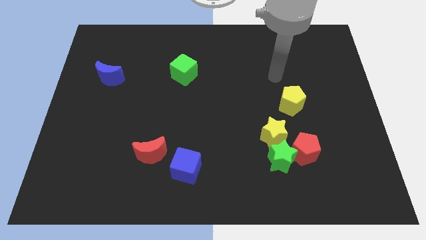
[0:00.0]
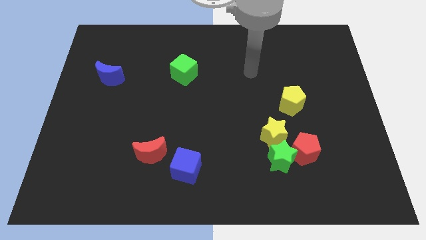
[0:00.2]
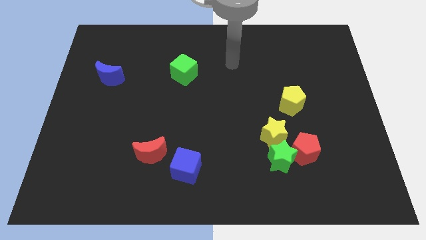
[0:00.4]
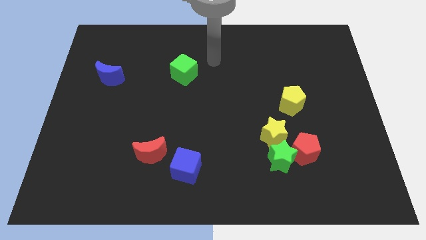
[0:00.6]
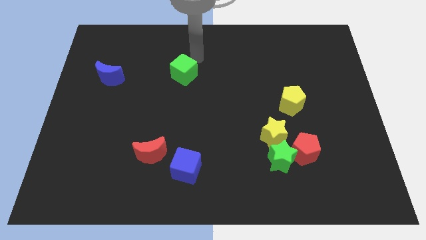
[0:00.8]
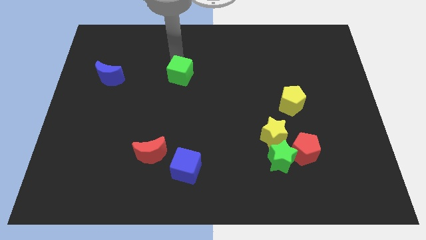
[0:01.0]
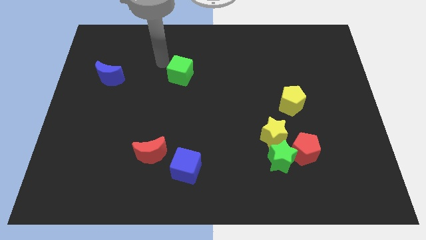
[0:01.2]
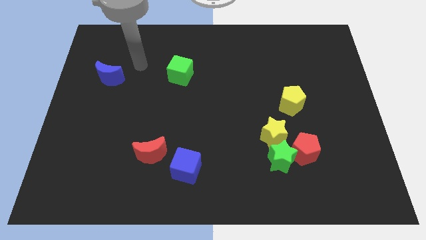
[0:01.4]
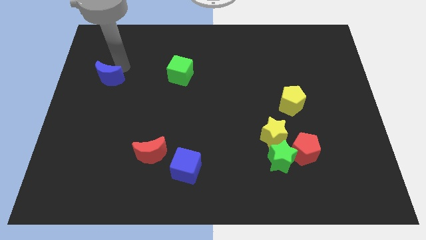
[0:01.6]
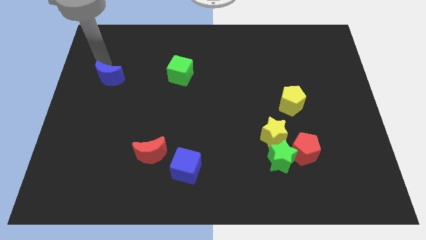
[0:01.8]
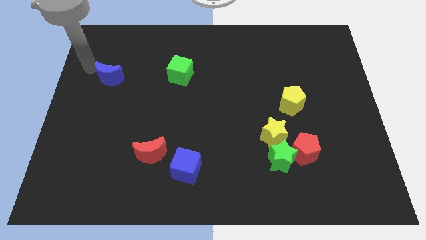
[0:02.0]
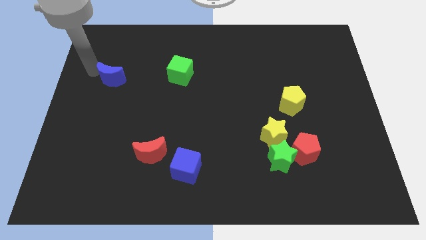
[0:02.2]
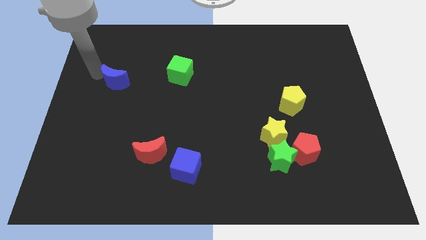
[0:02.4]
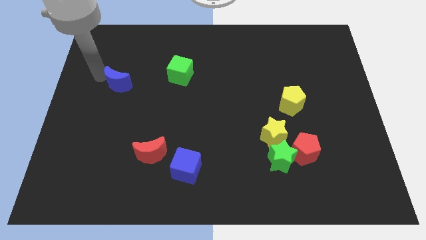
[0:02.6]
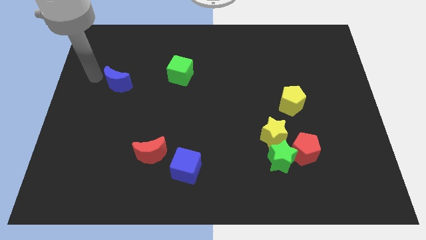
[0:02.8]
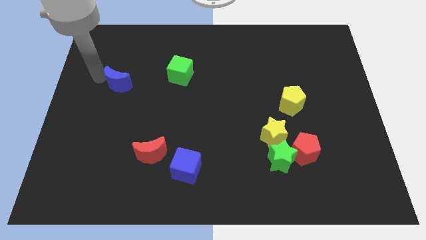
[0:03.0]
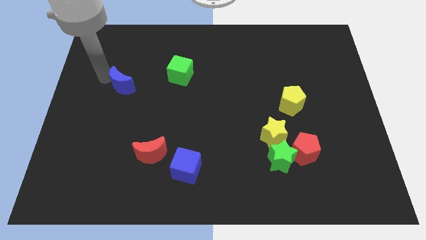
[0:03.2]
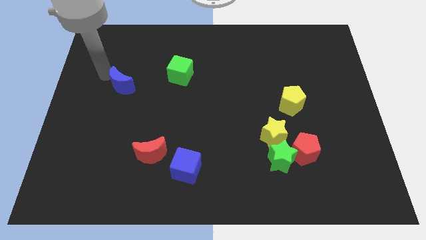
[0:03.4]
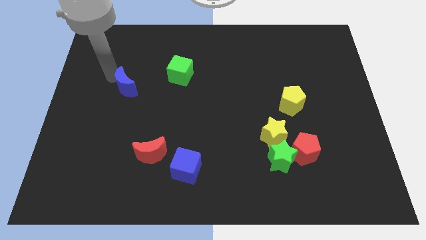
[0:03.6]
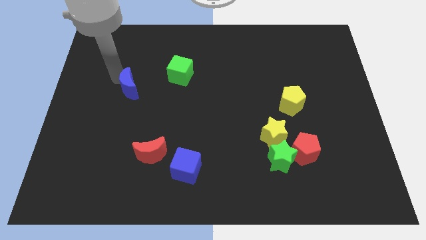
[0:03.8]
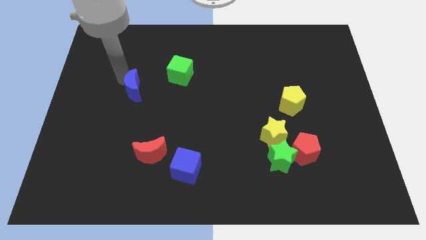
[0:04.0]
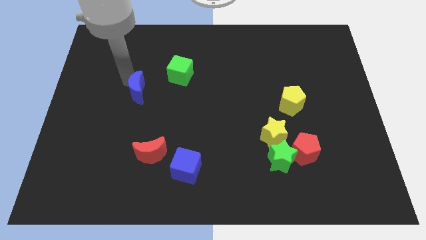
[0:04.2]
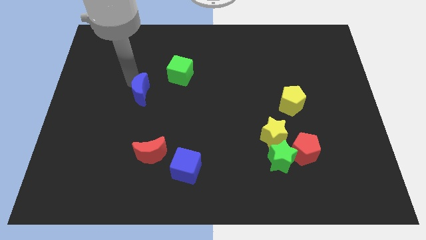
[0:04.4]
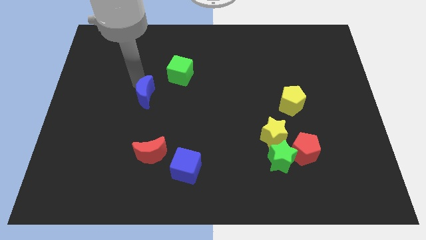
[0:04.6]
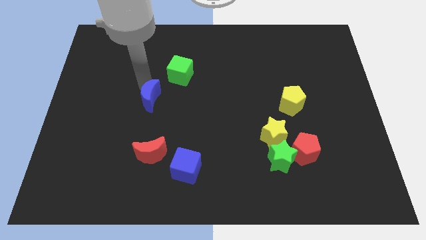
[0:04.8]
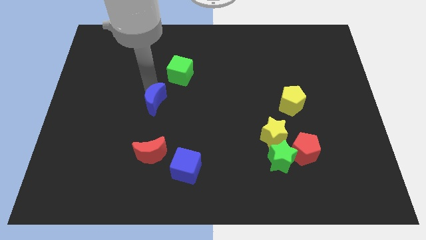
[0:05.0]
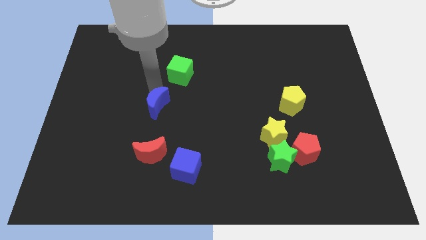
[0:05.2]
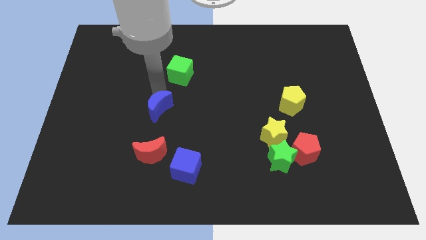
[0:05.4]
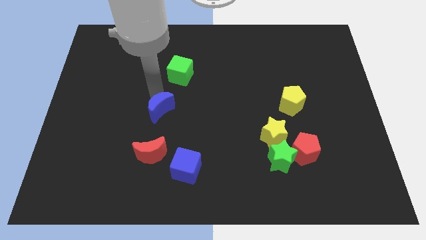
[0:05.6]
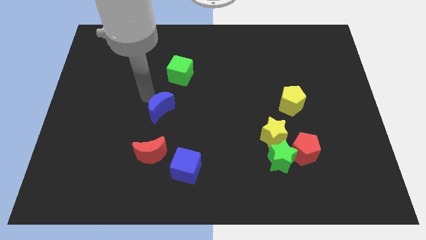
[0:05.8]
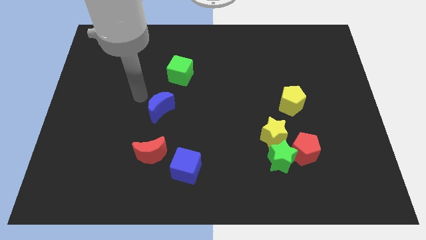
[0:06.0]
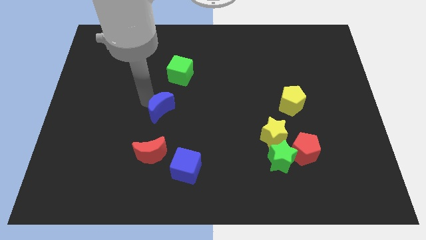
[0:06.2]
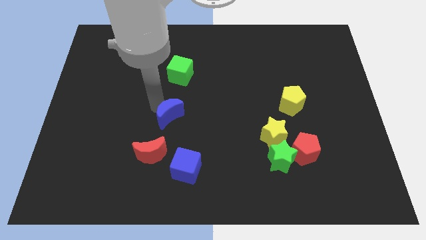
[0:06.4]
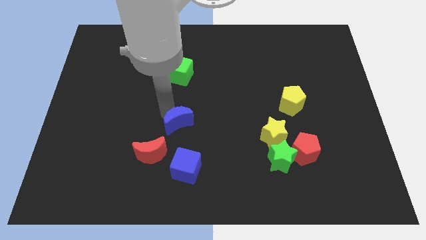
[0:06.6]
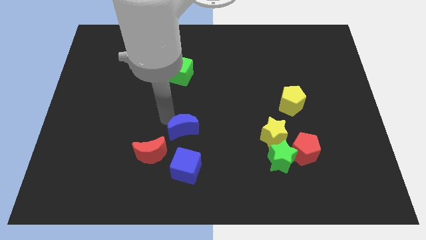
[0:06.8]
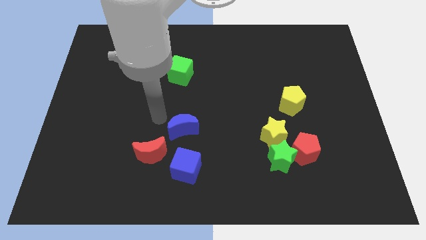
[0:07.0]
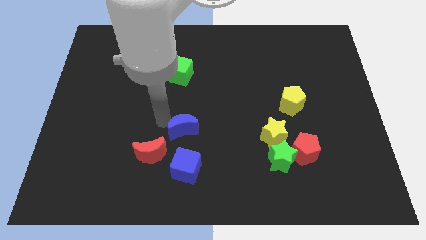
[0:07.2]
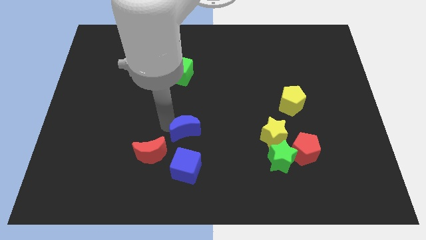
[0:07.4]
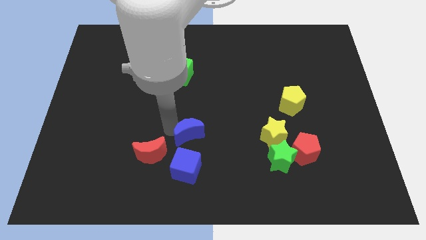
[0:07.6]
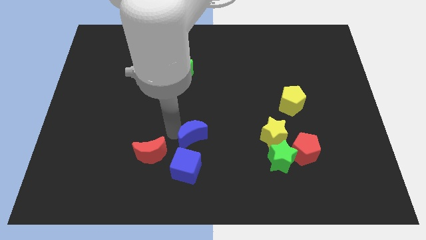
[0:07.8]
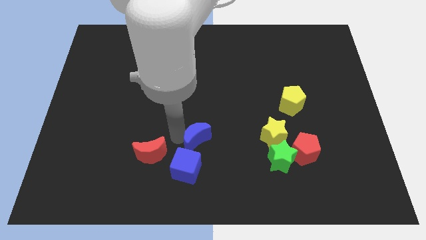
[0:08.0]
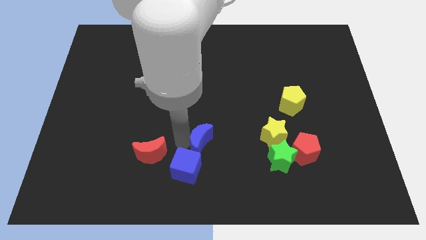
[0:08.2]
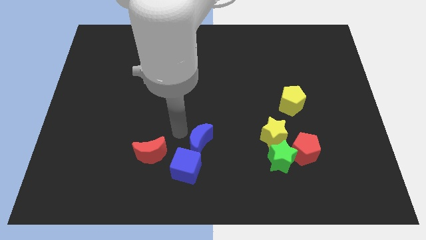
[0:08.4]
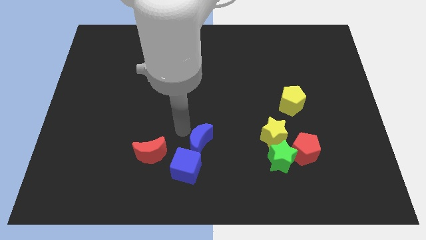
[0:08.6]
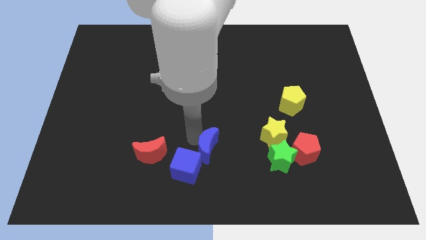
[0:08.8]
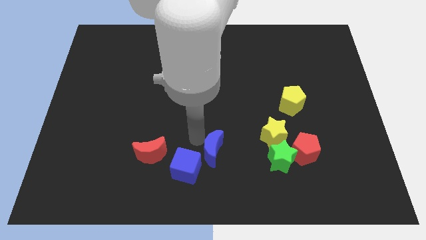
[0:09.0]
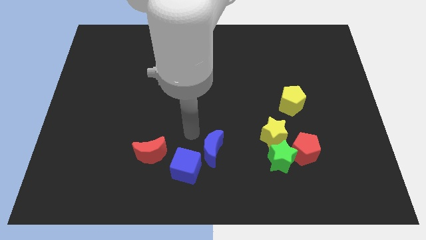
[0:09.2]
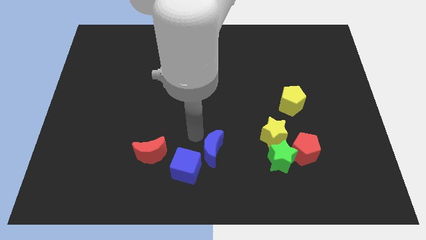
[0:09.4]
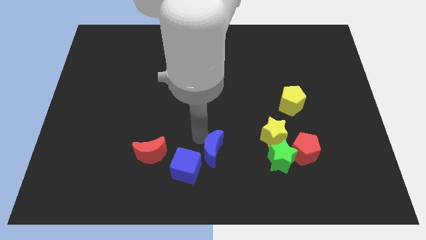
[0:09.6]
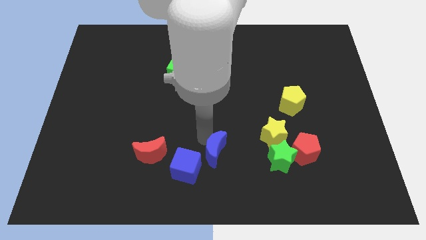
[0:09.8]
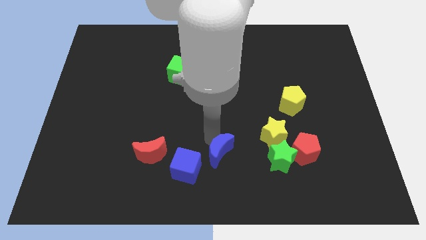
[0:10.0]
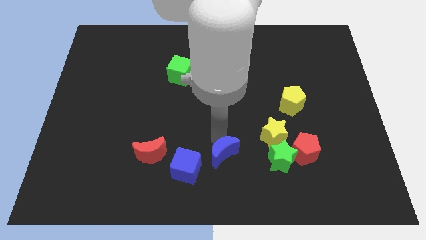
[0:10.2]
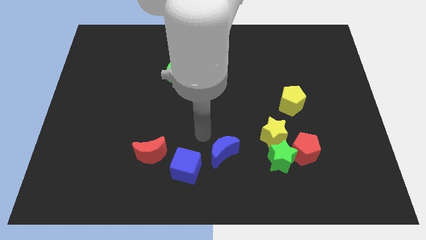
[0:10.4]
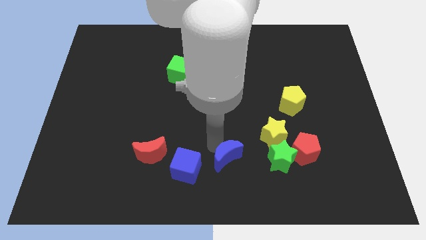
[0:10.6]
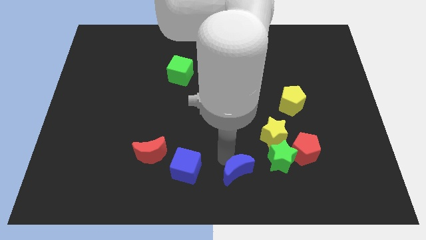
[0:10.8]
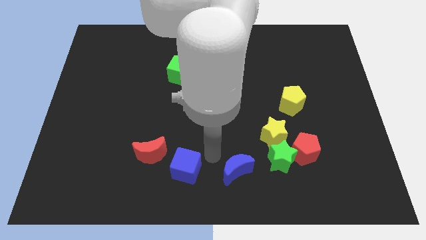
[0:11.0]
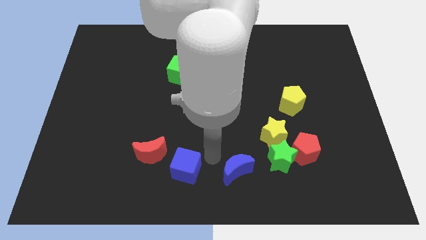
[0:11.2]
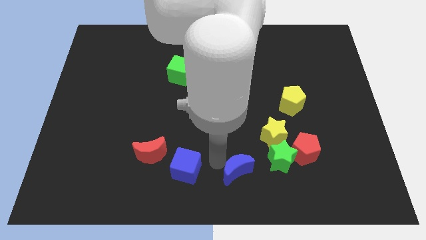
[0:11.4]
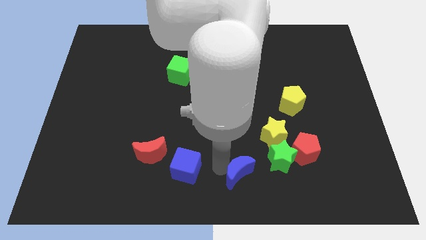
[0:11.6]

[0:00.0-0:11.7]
slide the blue moon to the bottom left of the green star

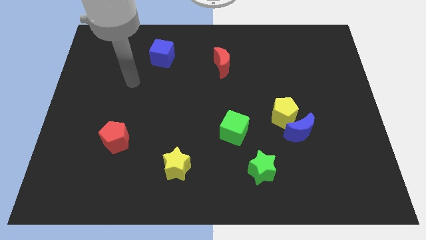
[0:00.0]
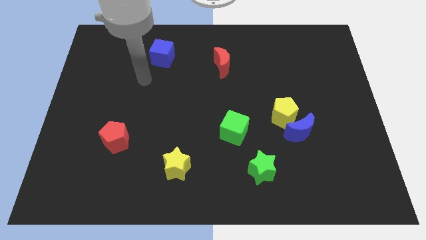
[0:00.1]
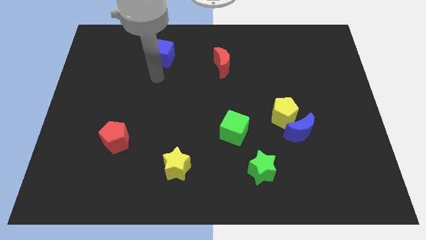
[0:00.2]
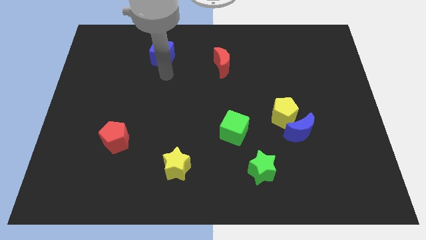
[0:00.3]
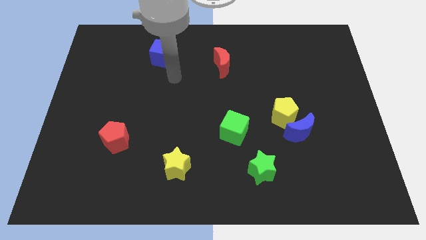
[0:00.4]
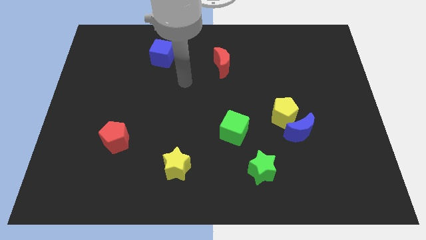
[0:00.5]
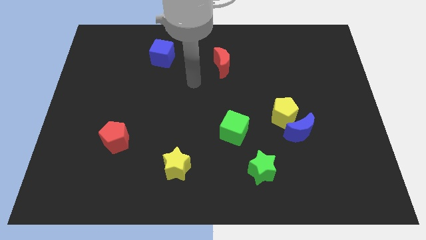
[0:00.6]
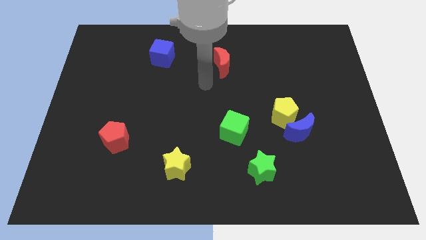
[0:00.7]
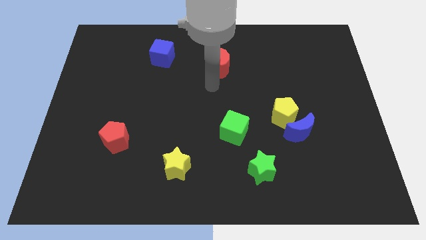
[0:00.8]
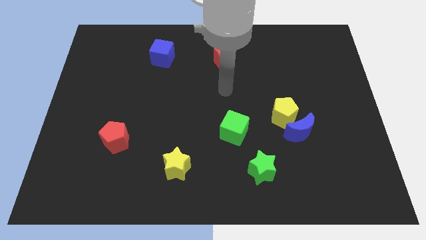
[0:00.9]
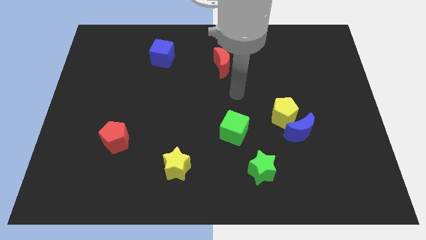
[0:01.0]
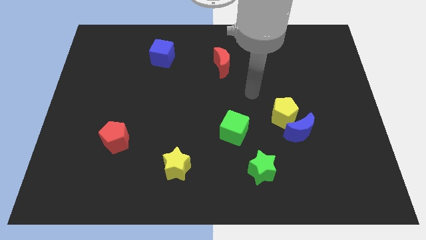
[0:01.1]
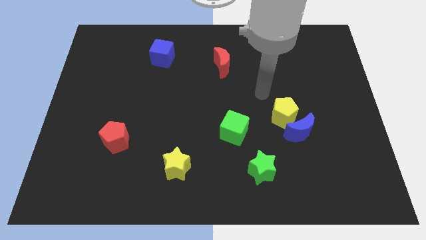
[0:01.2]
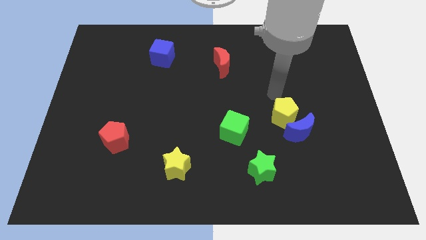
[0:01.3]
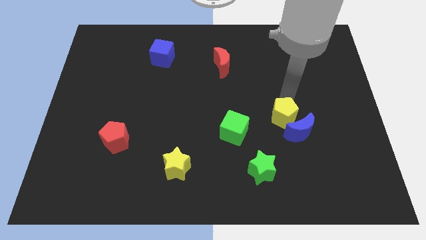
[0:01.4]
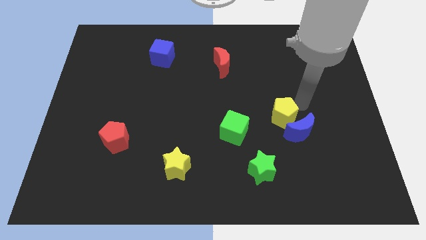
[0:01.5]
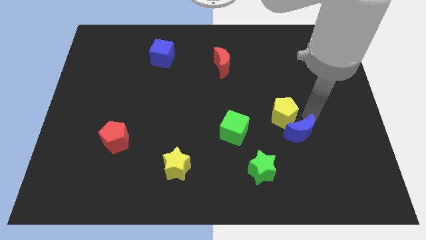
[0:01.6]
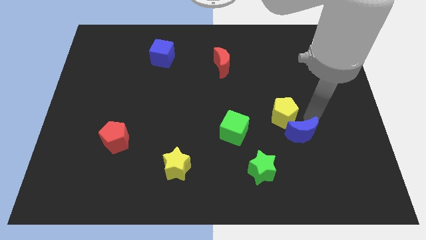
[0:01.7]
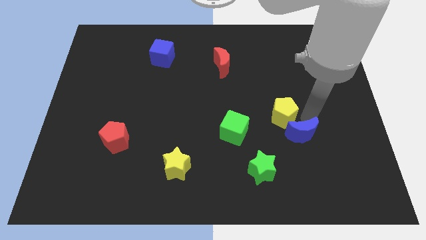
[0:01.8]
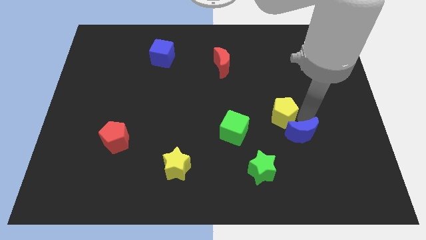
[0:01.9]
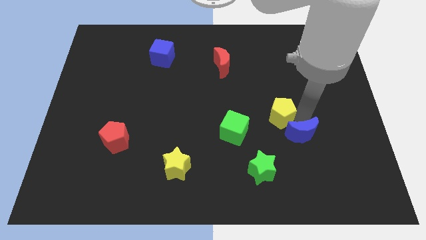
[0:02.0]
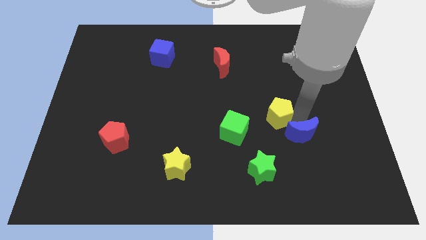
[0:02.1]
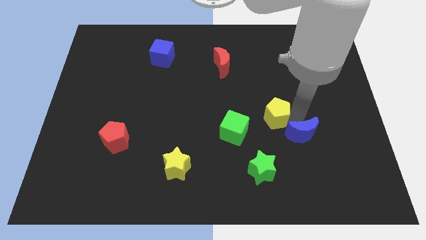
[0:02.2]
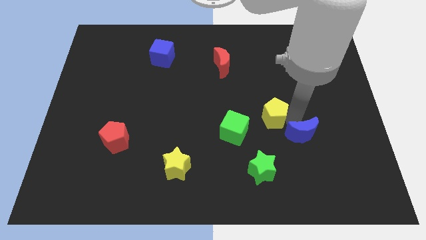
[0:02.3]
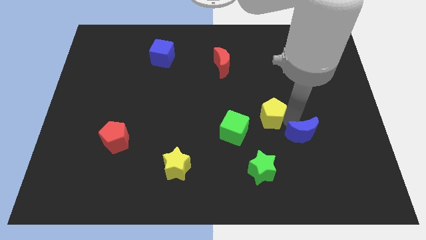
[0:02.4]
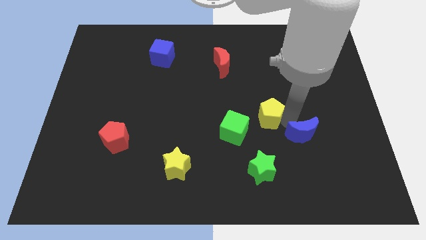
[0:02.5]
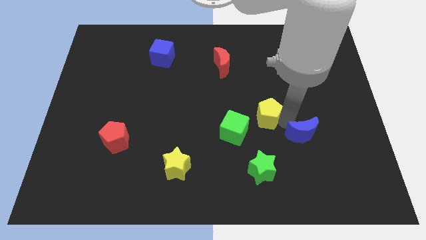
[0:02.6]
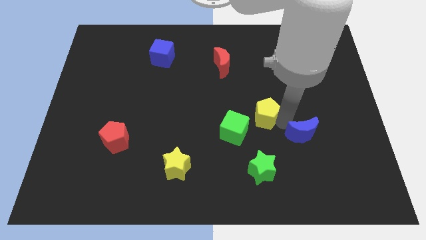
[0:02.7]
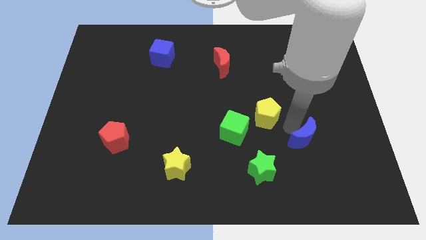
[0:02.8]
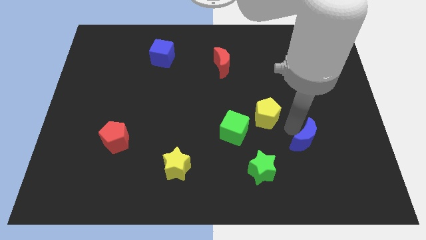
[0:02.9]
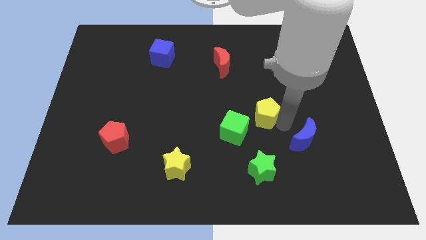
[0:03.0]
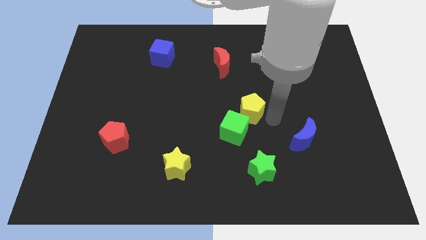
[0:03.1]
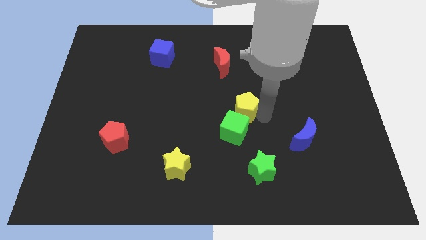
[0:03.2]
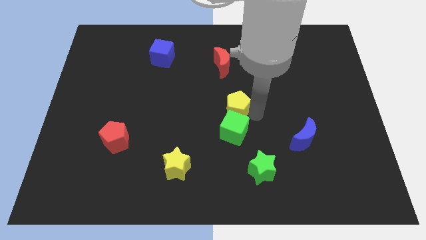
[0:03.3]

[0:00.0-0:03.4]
push the yellow pentagon below the red moon
